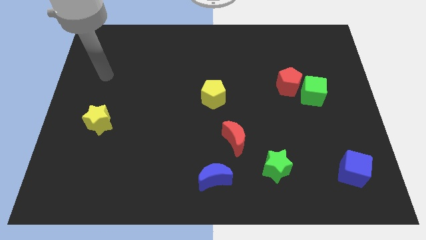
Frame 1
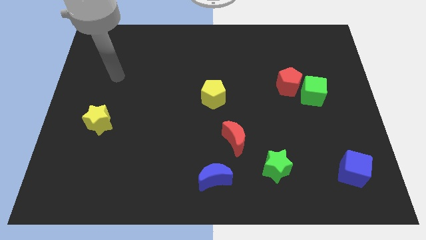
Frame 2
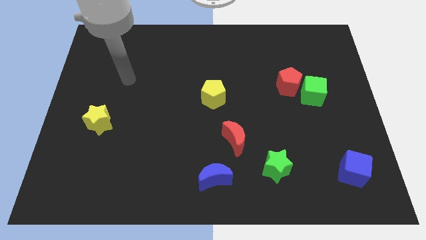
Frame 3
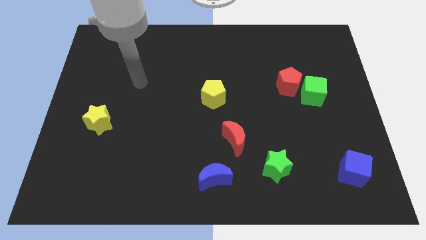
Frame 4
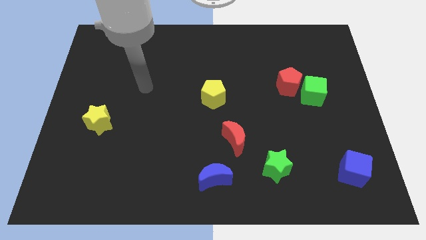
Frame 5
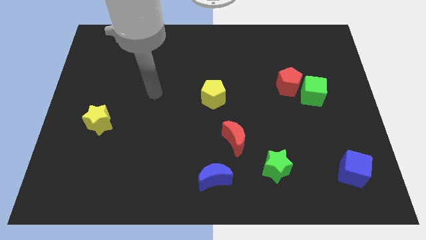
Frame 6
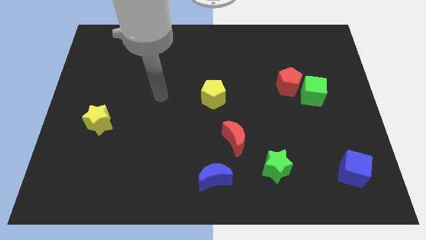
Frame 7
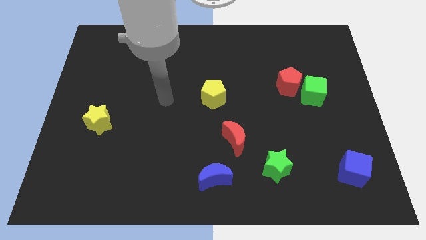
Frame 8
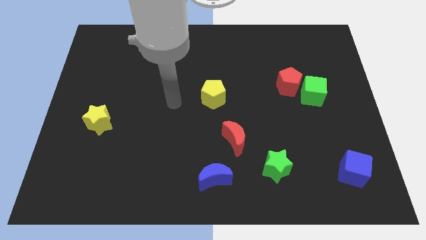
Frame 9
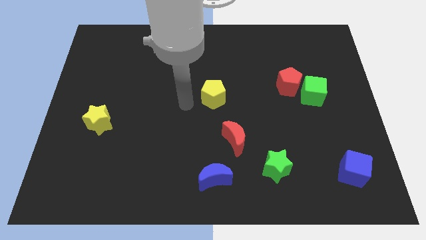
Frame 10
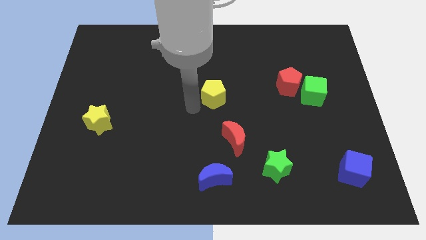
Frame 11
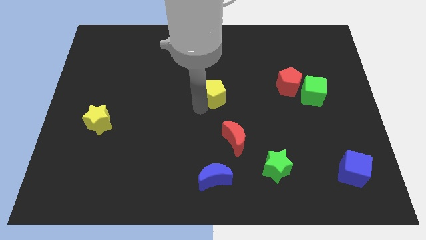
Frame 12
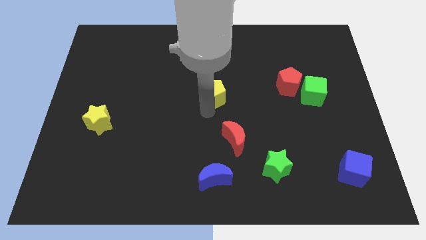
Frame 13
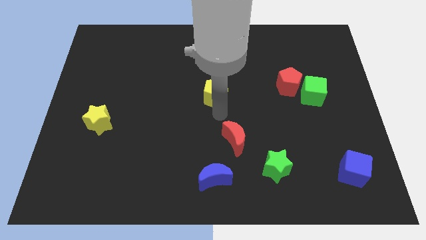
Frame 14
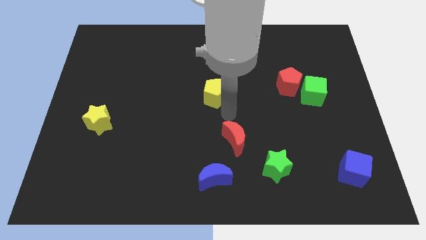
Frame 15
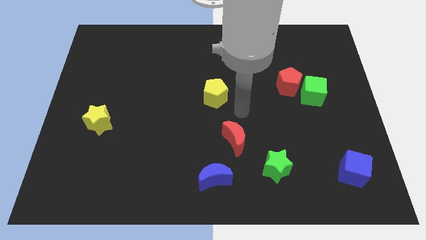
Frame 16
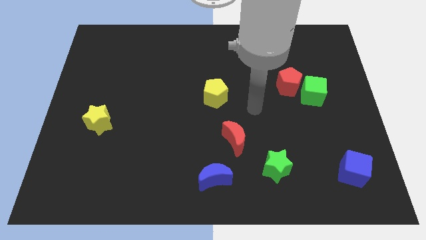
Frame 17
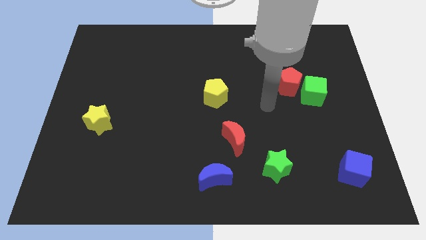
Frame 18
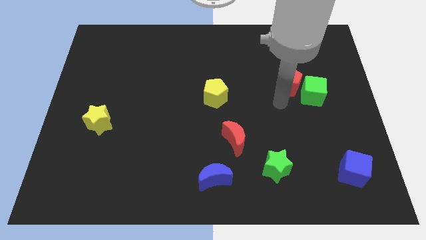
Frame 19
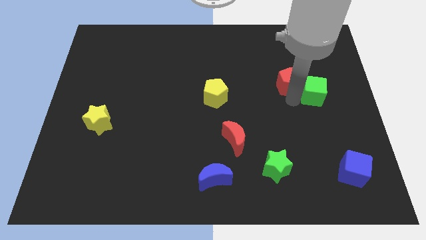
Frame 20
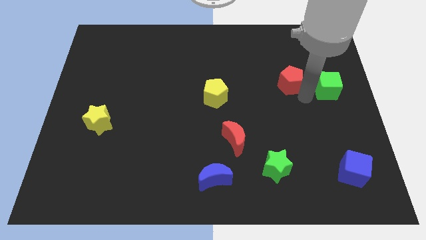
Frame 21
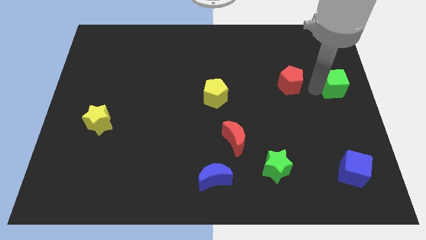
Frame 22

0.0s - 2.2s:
separate the red pentagon from the green cube

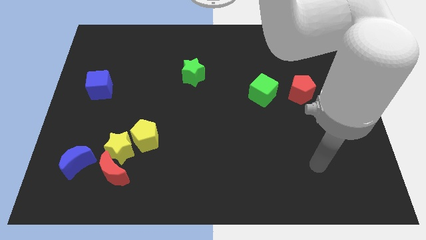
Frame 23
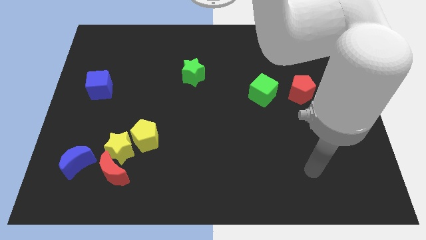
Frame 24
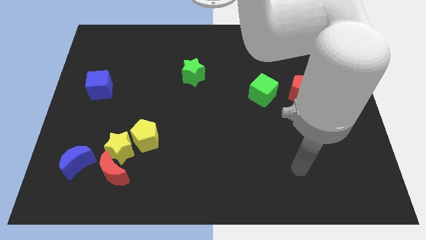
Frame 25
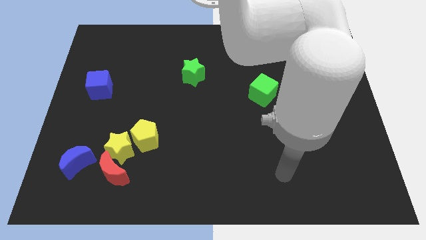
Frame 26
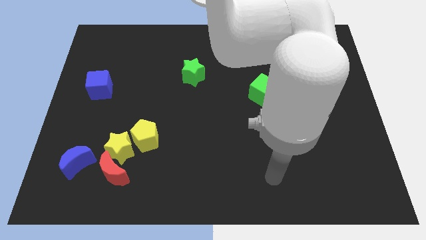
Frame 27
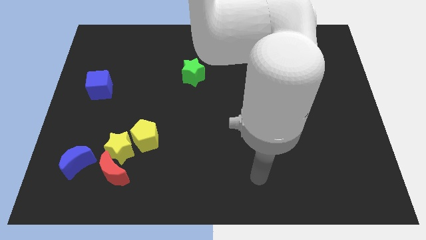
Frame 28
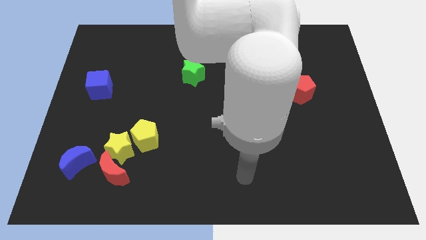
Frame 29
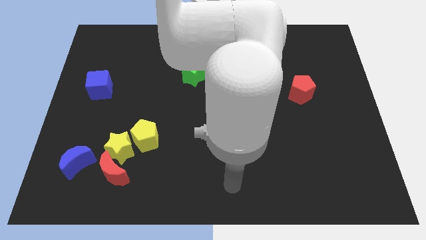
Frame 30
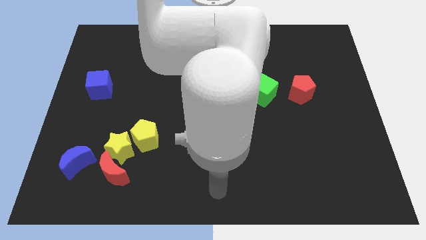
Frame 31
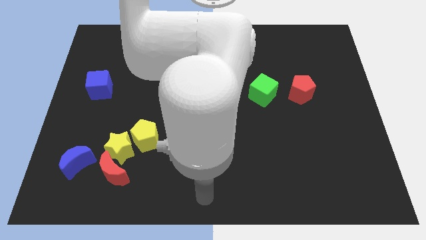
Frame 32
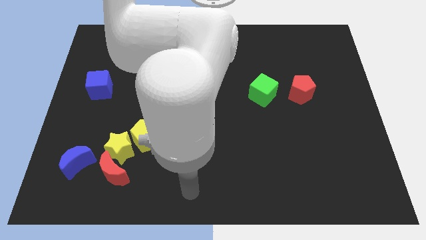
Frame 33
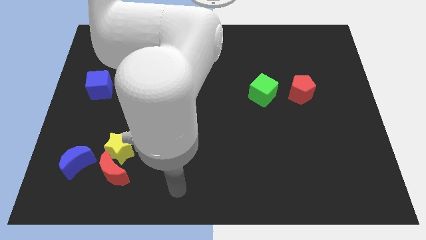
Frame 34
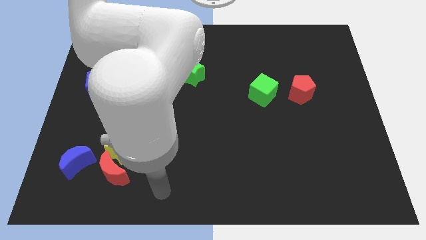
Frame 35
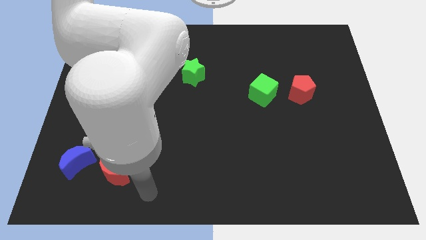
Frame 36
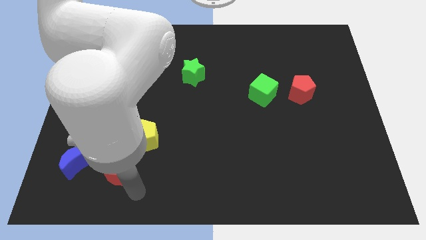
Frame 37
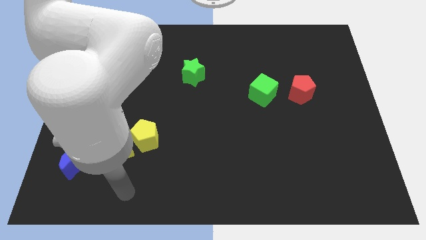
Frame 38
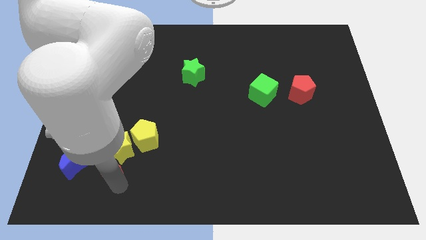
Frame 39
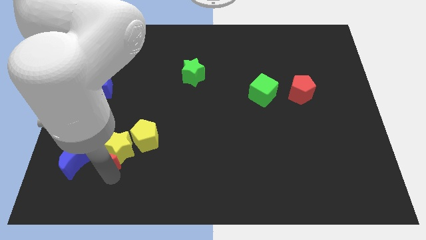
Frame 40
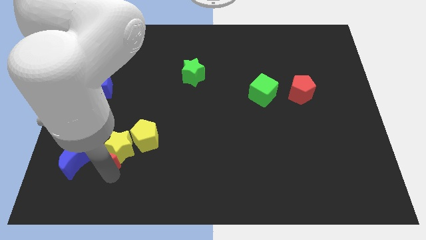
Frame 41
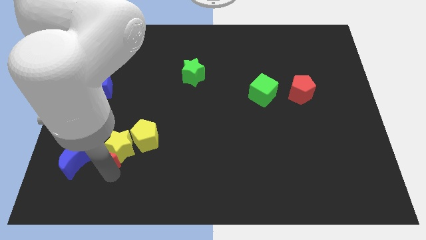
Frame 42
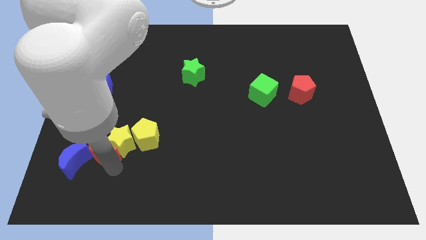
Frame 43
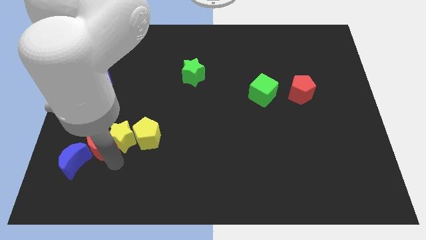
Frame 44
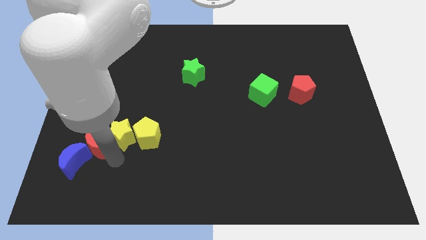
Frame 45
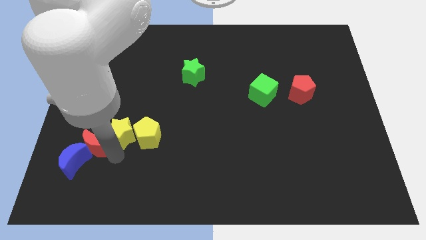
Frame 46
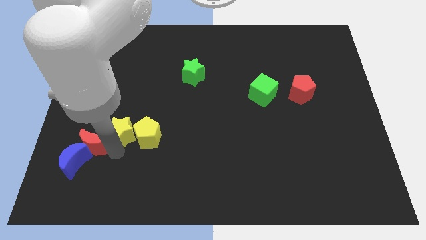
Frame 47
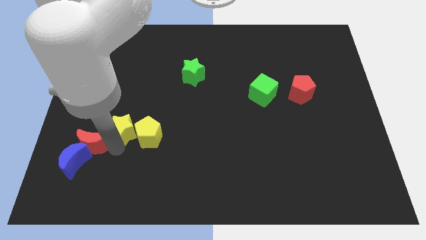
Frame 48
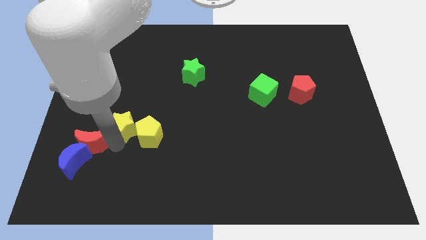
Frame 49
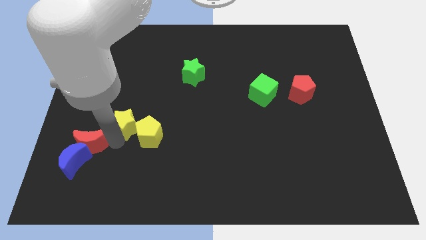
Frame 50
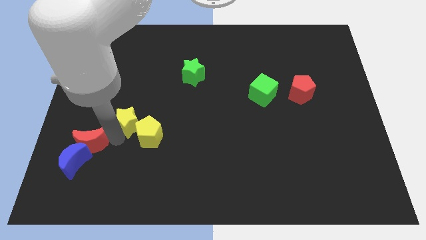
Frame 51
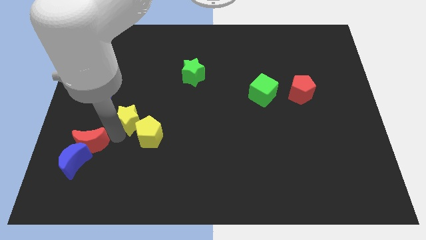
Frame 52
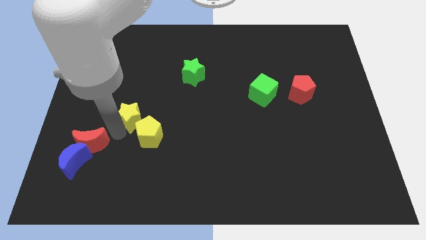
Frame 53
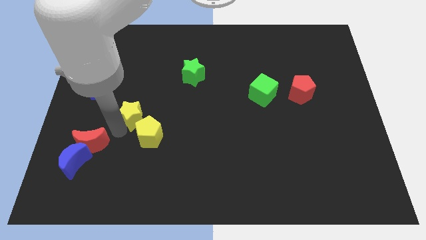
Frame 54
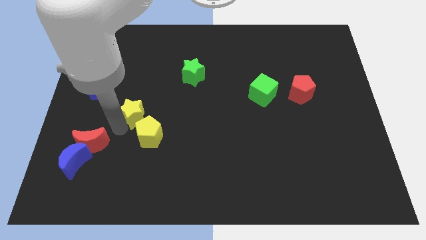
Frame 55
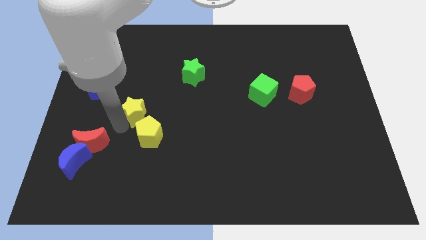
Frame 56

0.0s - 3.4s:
move the yellow star away from the yellow pentagon, red moon, and blue moon

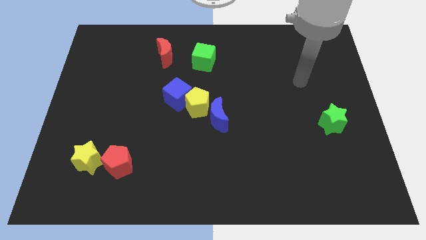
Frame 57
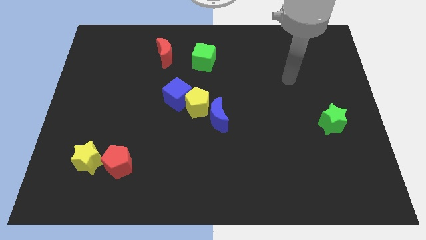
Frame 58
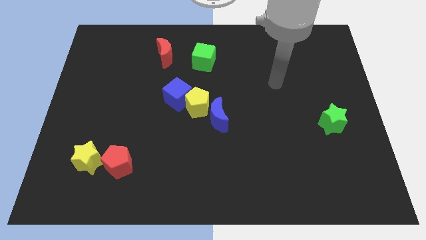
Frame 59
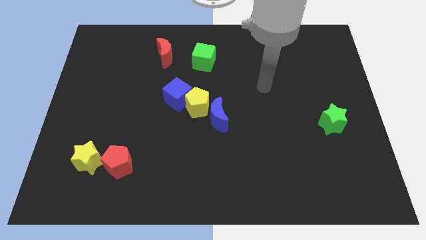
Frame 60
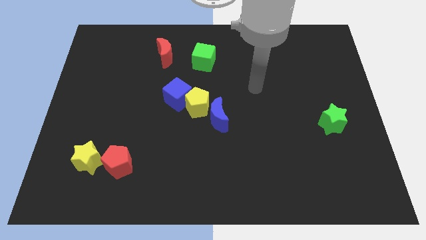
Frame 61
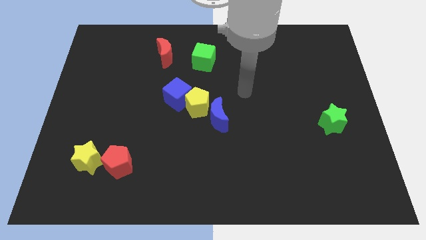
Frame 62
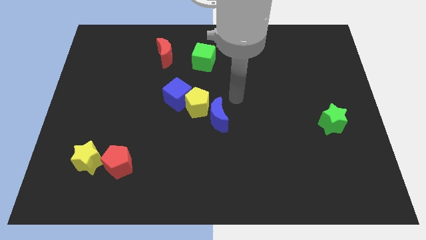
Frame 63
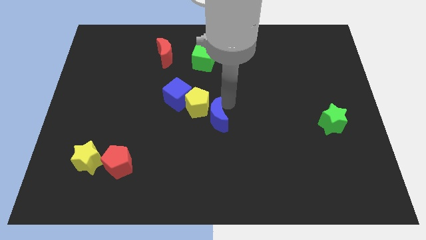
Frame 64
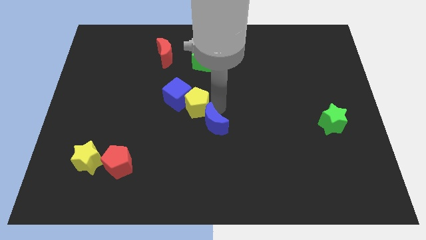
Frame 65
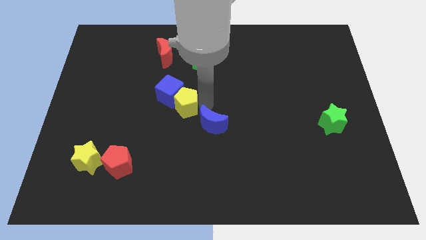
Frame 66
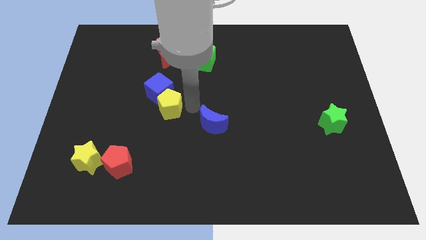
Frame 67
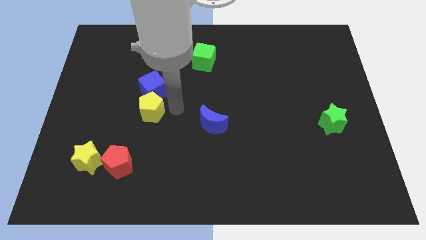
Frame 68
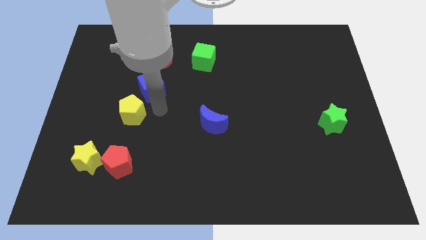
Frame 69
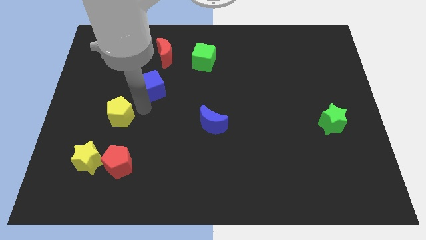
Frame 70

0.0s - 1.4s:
move the blue cube away from the yellow pentagon

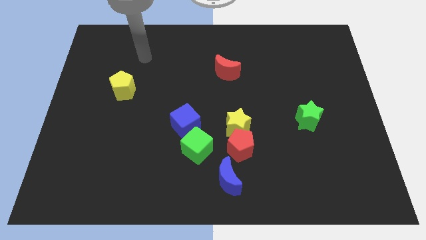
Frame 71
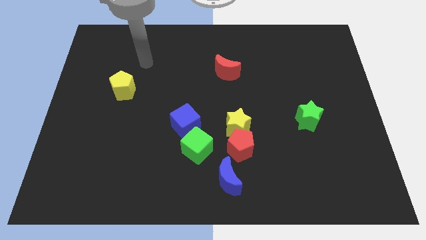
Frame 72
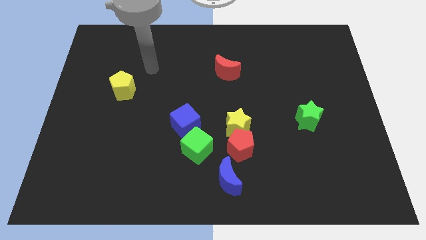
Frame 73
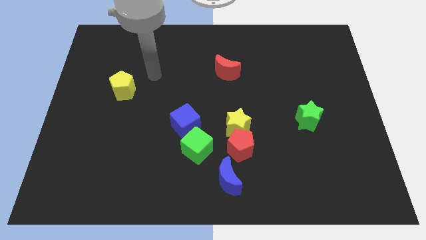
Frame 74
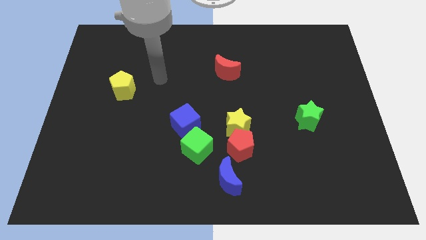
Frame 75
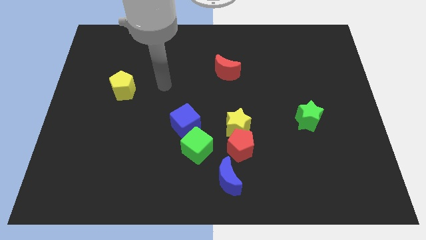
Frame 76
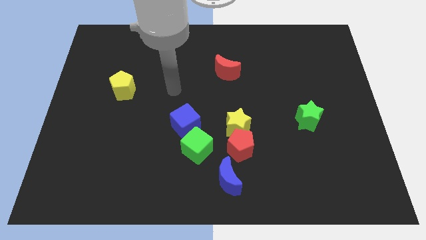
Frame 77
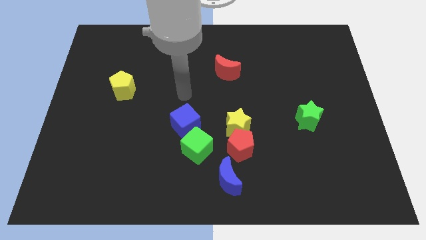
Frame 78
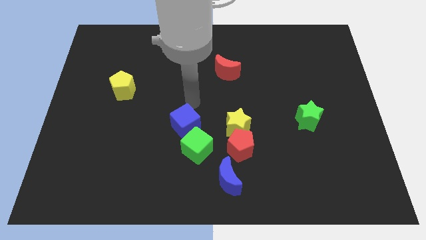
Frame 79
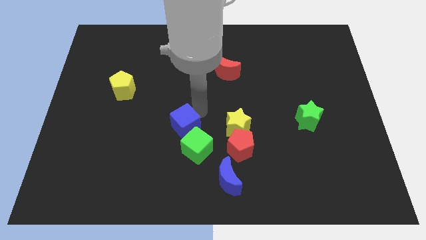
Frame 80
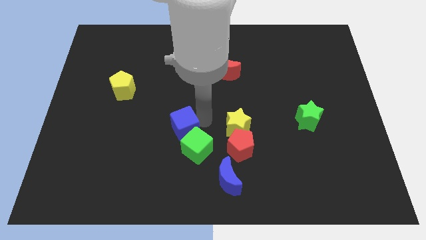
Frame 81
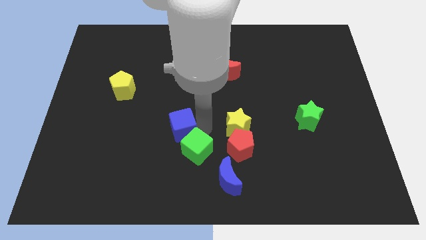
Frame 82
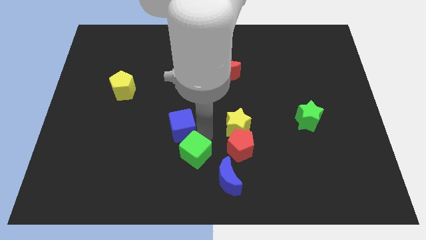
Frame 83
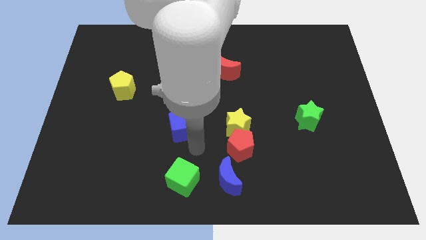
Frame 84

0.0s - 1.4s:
pull the blue cube apart from the green cube

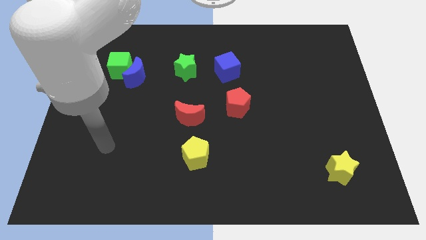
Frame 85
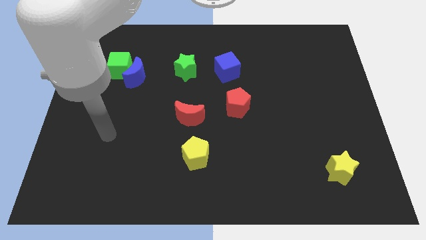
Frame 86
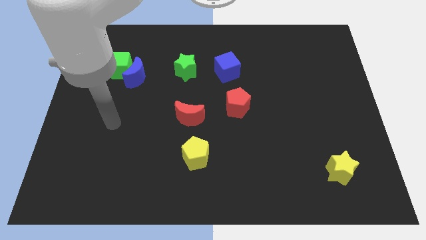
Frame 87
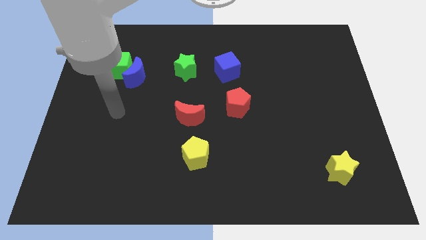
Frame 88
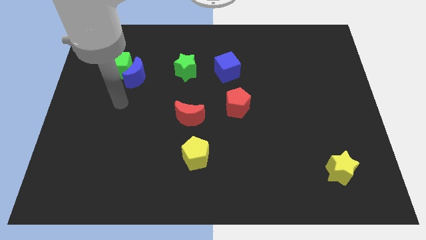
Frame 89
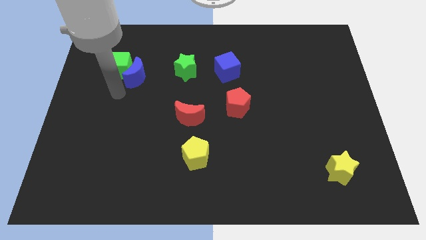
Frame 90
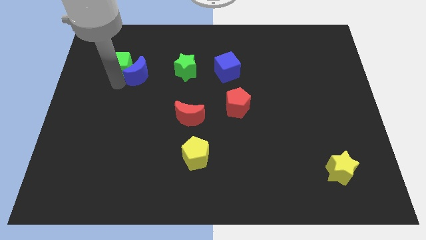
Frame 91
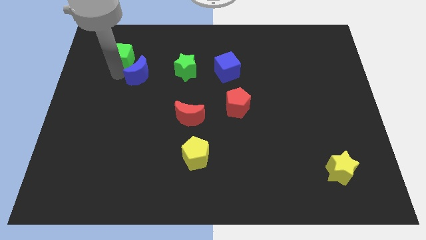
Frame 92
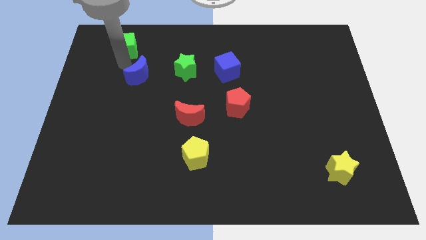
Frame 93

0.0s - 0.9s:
move the blue moon away from the green cube
